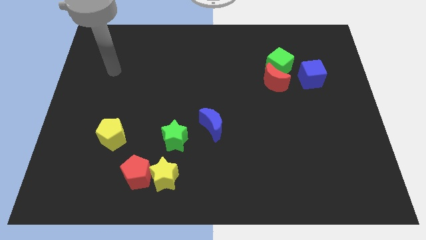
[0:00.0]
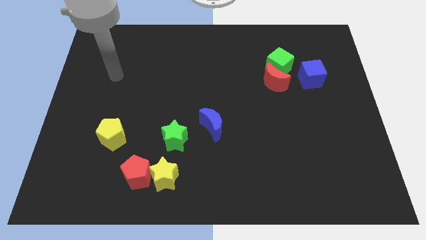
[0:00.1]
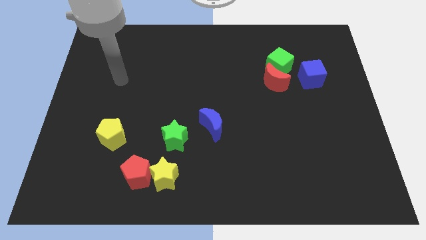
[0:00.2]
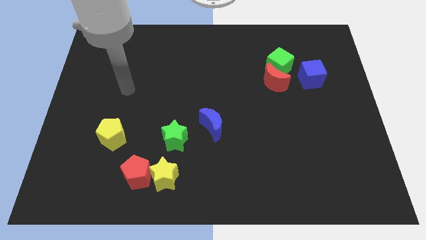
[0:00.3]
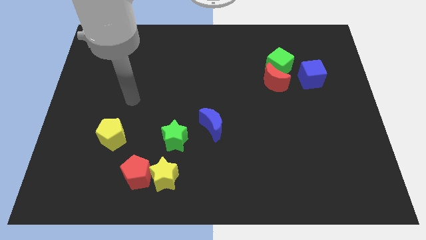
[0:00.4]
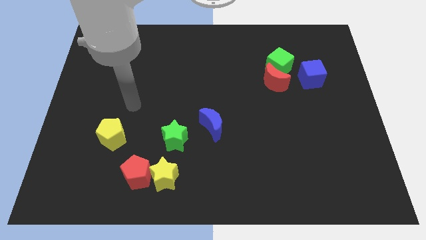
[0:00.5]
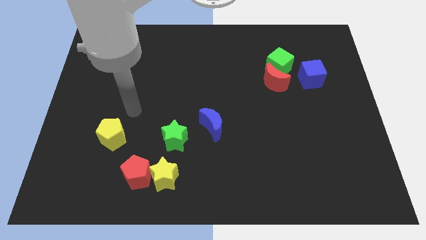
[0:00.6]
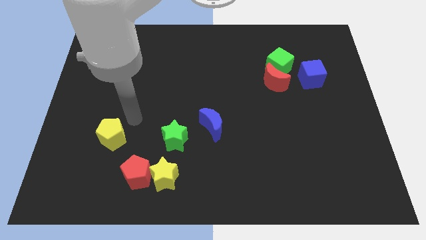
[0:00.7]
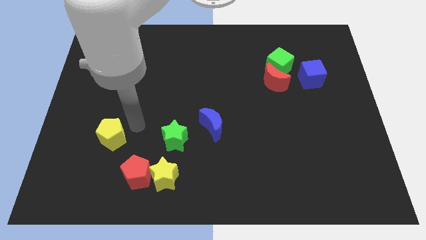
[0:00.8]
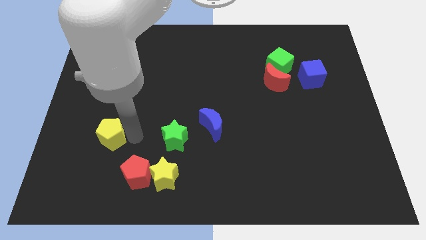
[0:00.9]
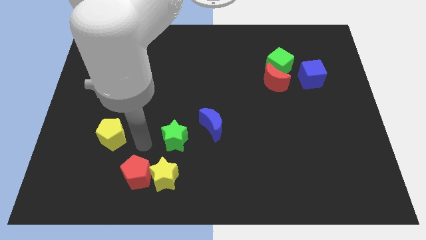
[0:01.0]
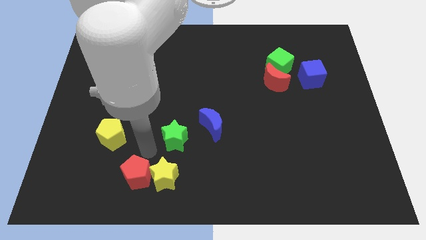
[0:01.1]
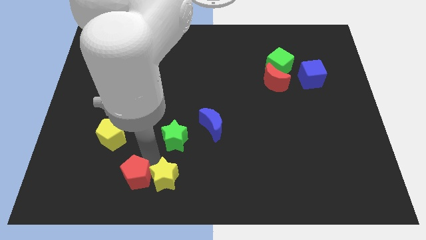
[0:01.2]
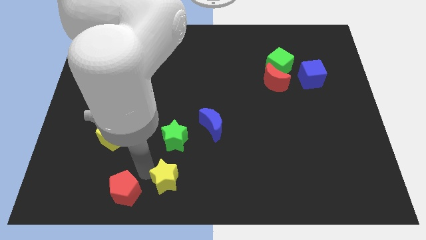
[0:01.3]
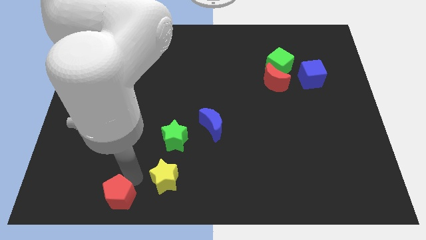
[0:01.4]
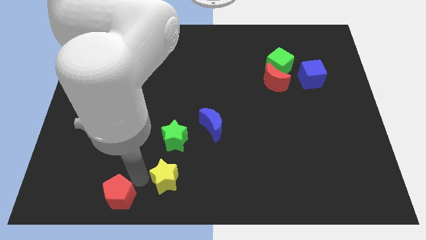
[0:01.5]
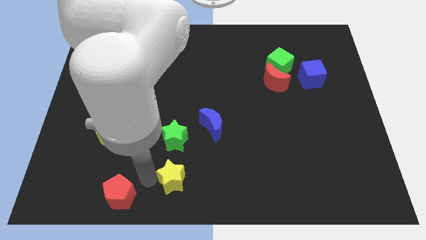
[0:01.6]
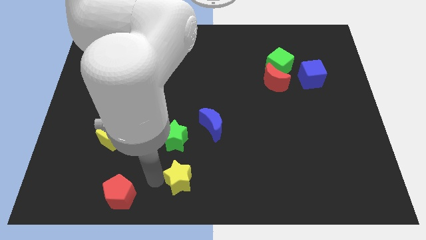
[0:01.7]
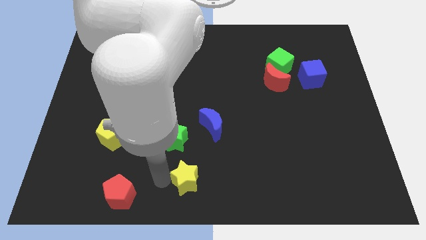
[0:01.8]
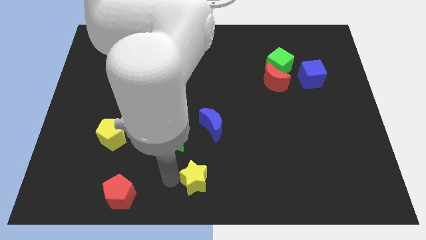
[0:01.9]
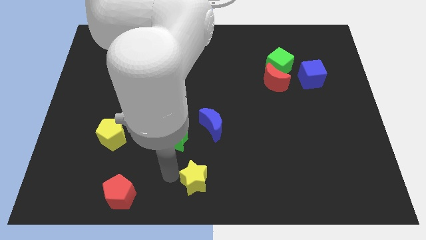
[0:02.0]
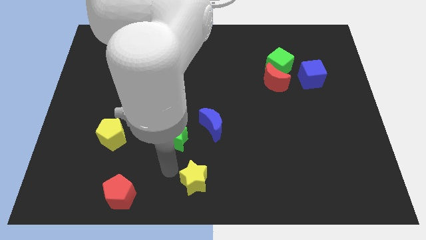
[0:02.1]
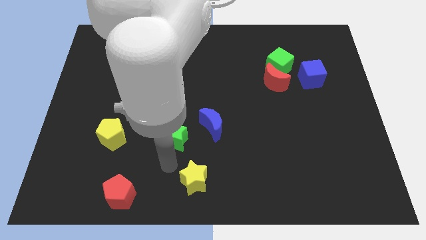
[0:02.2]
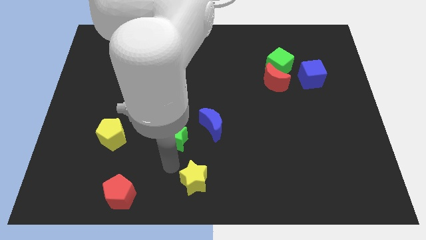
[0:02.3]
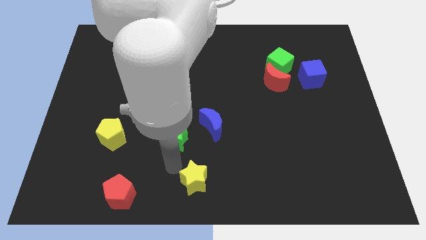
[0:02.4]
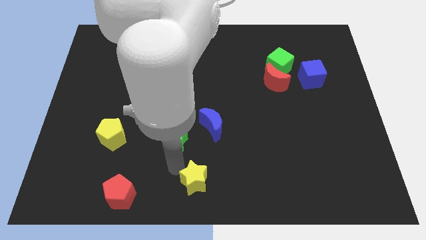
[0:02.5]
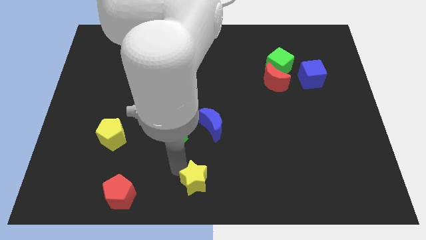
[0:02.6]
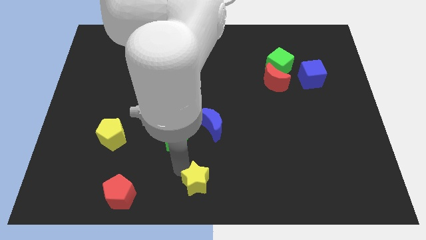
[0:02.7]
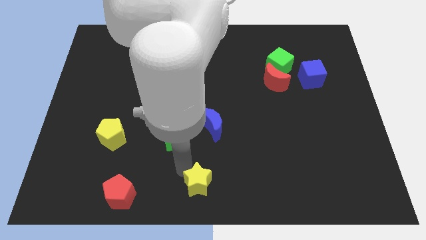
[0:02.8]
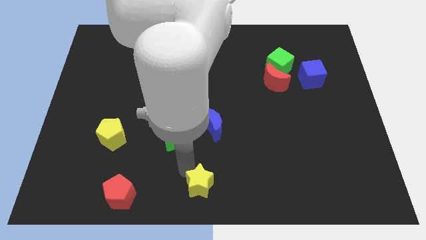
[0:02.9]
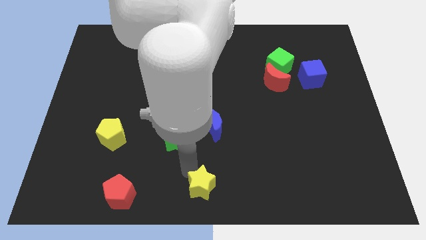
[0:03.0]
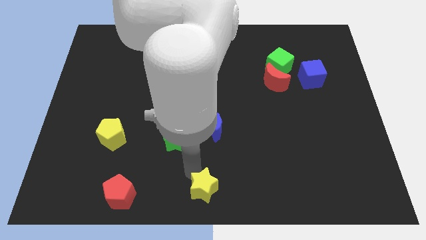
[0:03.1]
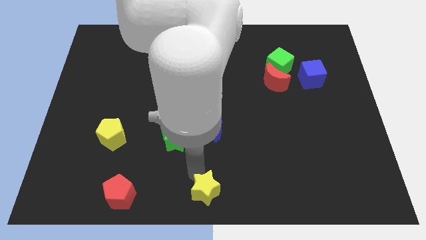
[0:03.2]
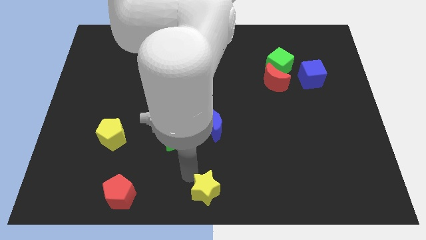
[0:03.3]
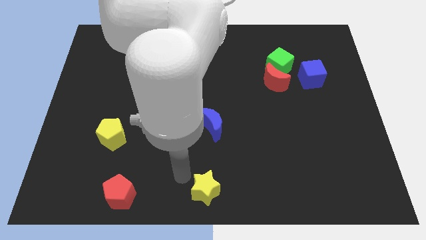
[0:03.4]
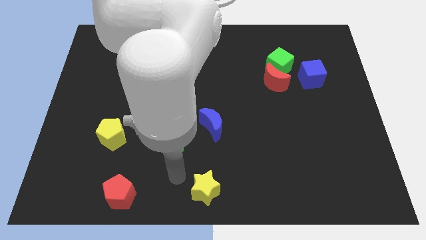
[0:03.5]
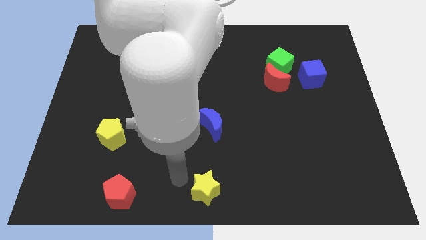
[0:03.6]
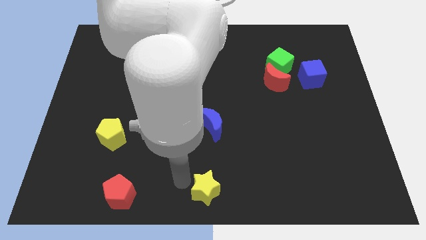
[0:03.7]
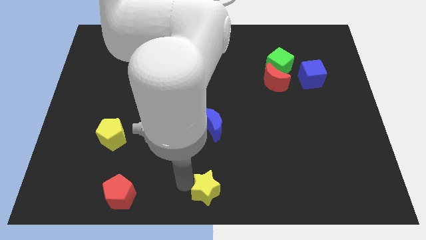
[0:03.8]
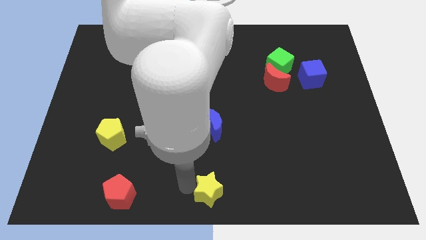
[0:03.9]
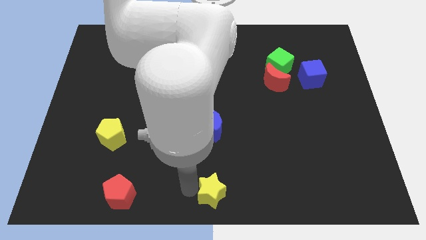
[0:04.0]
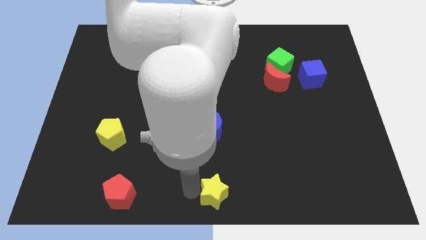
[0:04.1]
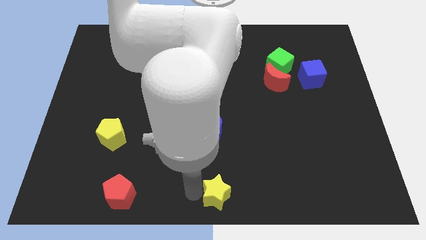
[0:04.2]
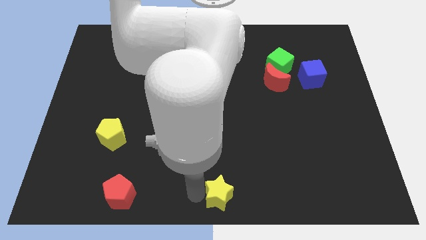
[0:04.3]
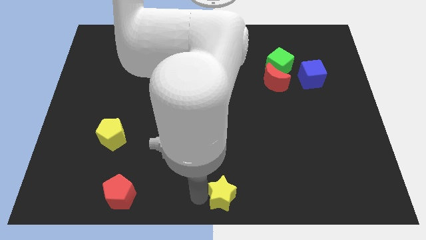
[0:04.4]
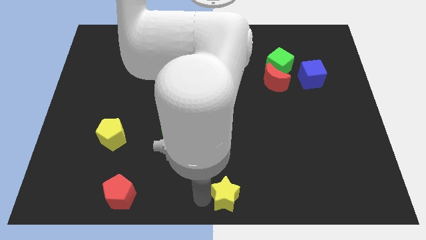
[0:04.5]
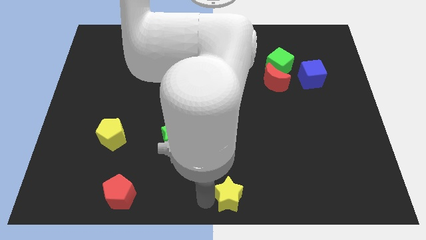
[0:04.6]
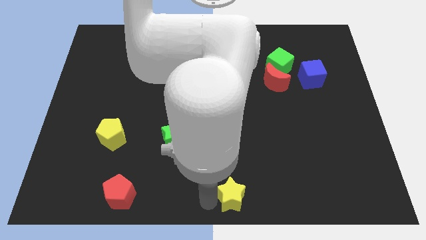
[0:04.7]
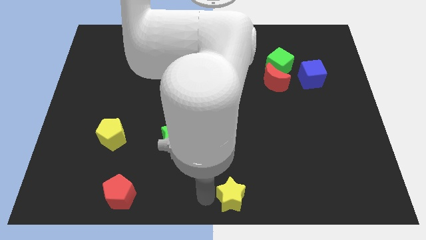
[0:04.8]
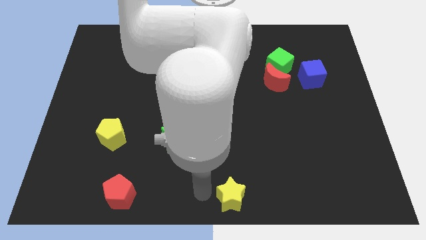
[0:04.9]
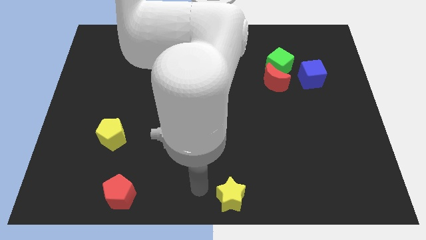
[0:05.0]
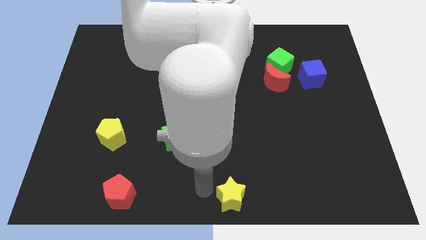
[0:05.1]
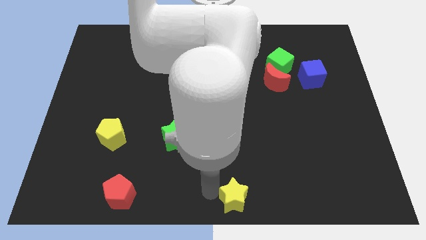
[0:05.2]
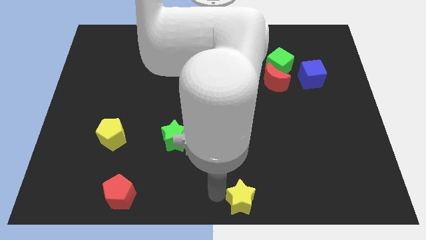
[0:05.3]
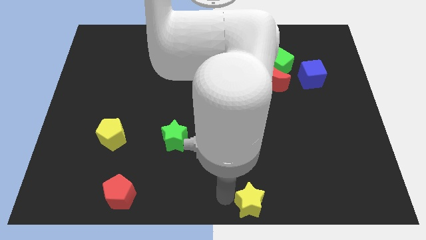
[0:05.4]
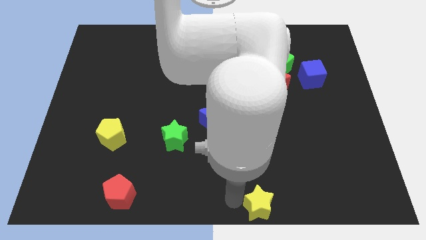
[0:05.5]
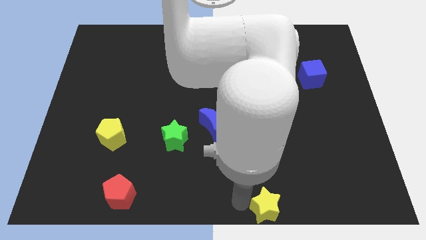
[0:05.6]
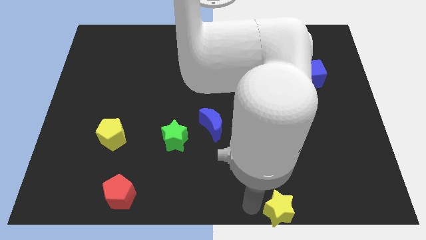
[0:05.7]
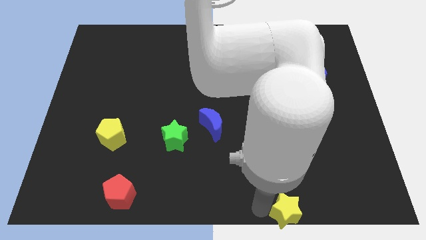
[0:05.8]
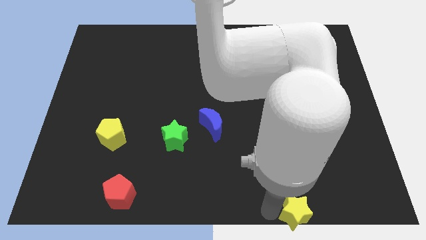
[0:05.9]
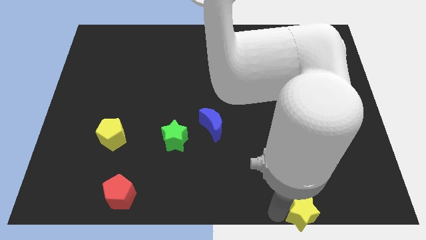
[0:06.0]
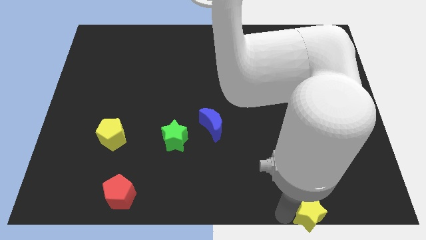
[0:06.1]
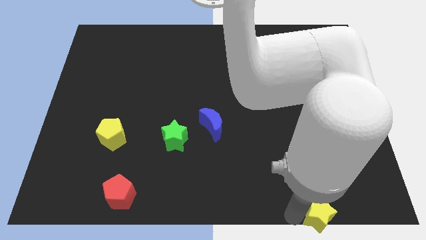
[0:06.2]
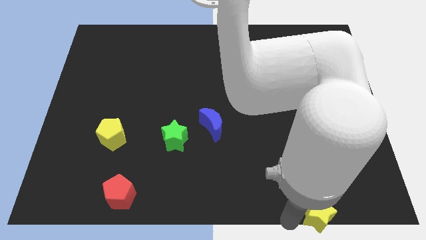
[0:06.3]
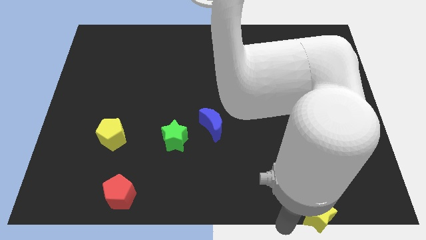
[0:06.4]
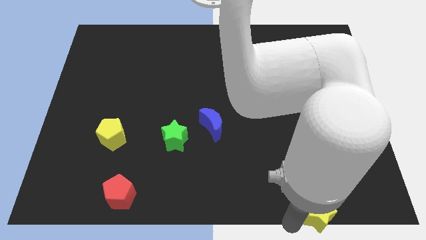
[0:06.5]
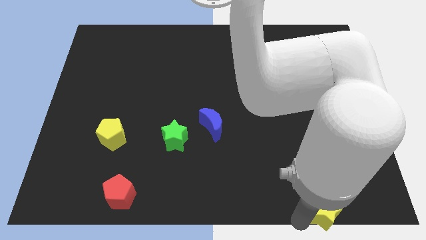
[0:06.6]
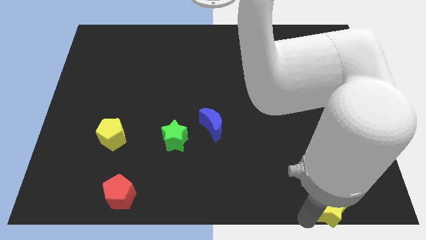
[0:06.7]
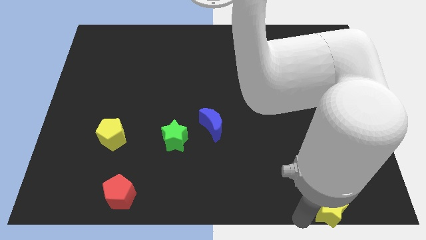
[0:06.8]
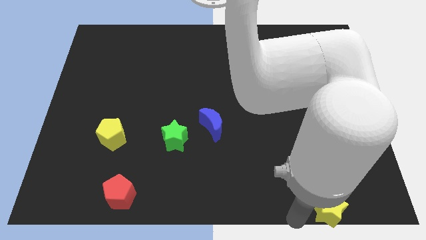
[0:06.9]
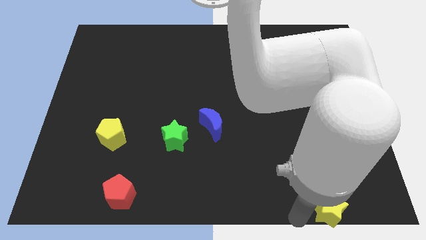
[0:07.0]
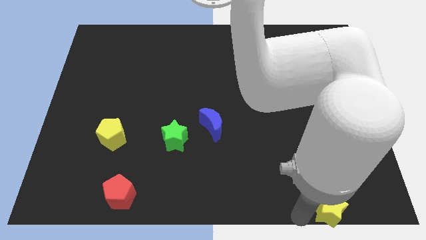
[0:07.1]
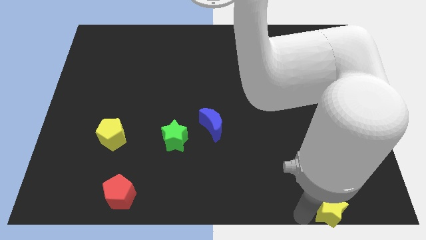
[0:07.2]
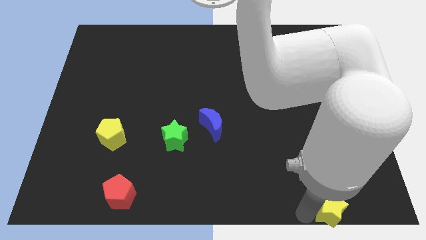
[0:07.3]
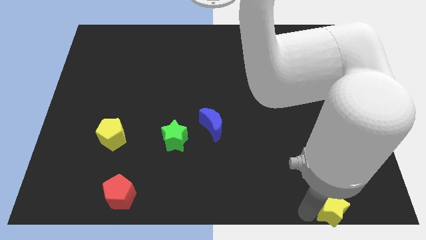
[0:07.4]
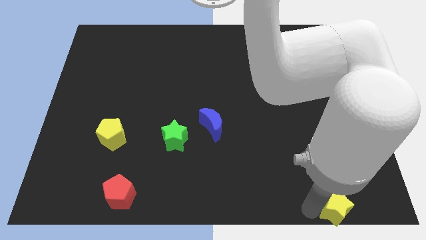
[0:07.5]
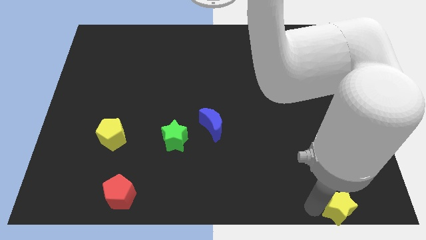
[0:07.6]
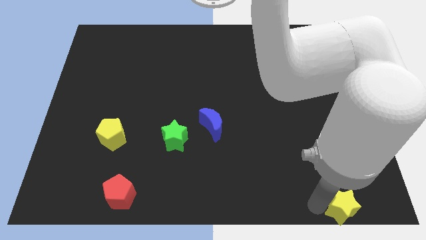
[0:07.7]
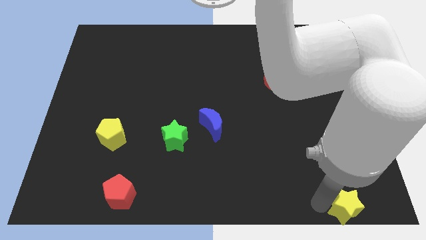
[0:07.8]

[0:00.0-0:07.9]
push the yellow star to the bottom right of the board
